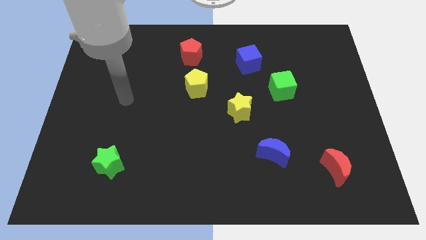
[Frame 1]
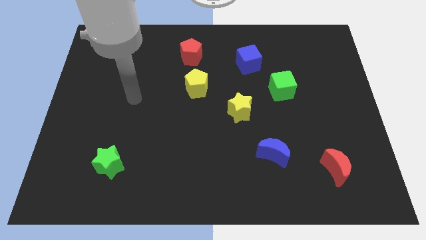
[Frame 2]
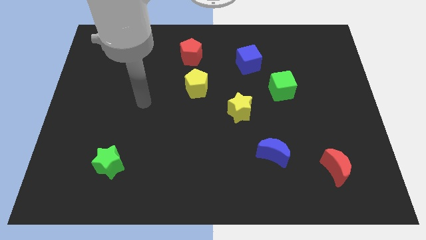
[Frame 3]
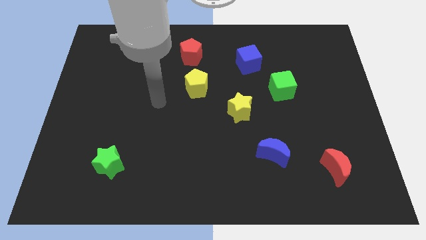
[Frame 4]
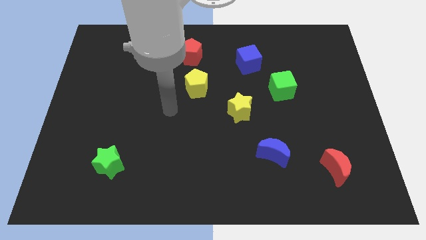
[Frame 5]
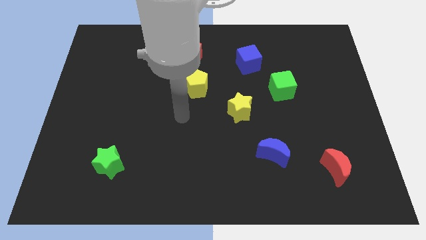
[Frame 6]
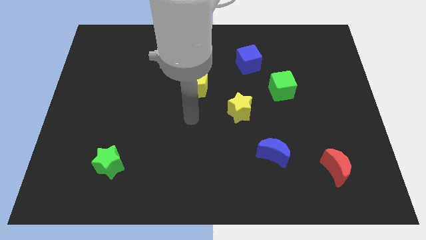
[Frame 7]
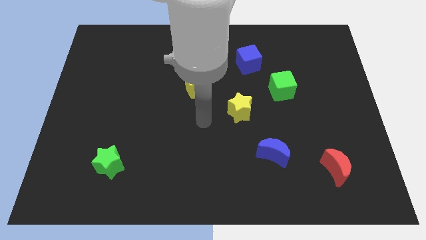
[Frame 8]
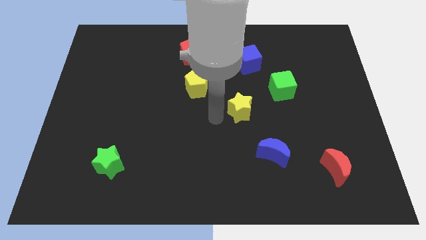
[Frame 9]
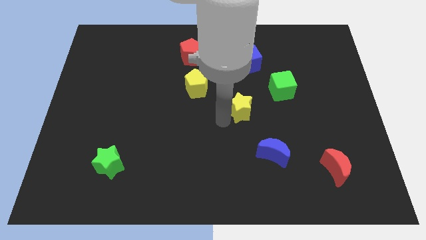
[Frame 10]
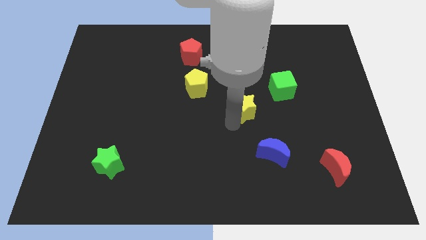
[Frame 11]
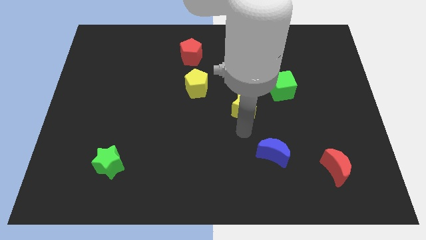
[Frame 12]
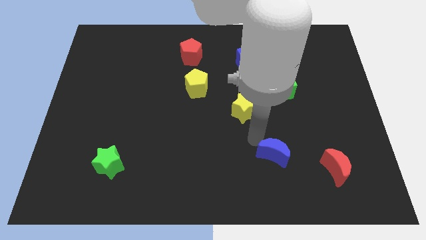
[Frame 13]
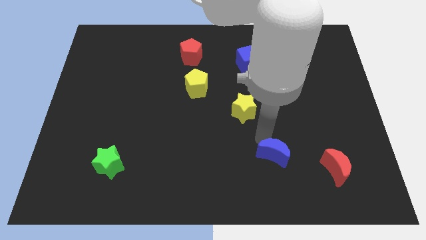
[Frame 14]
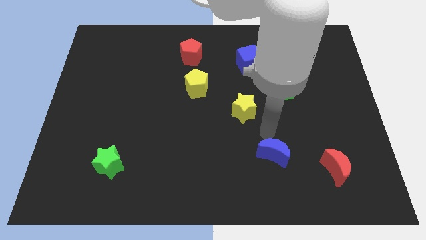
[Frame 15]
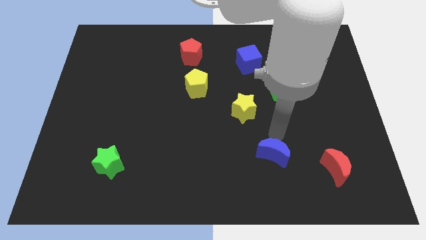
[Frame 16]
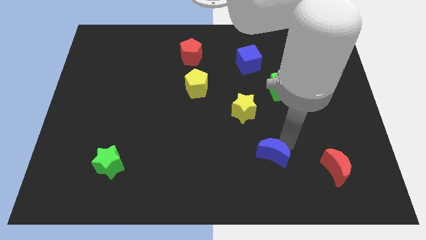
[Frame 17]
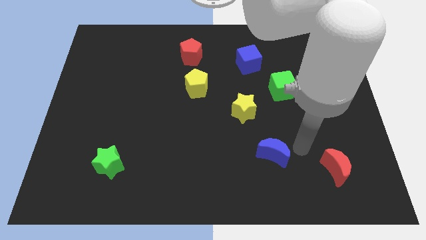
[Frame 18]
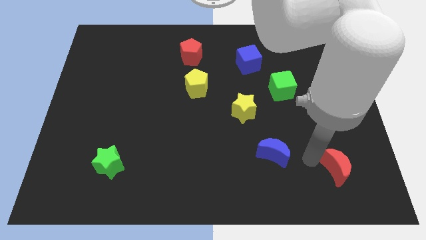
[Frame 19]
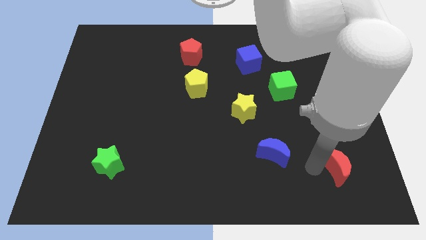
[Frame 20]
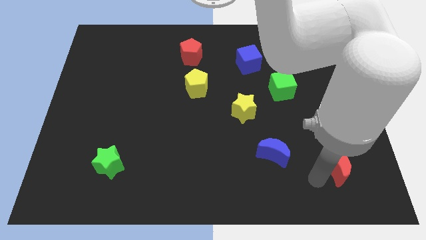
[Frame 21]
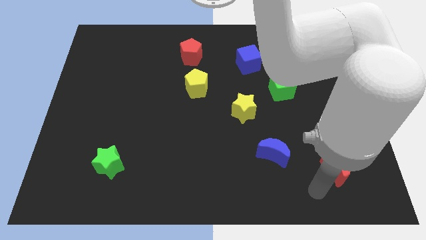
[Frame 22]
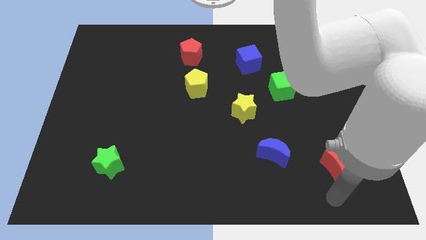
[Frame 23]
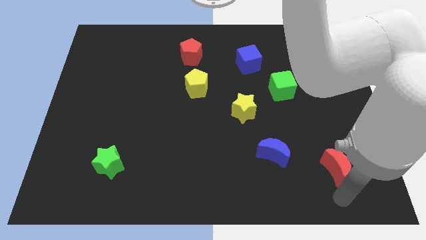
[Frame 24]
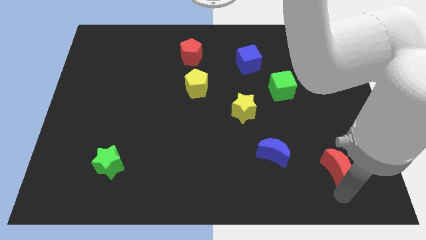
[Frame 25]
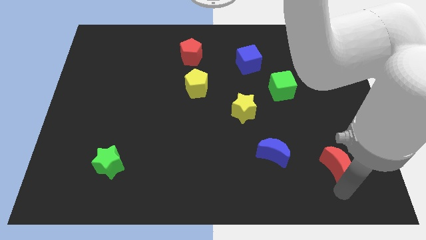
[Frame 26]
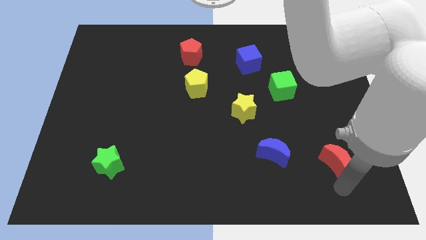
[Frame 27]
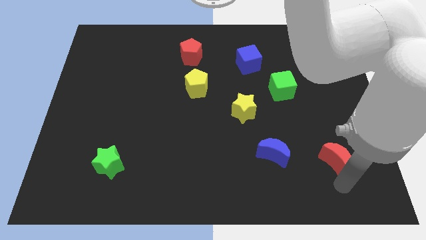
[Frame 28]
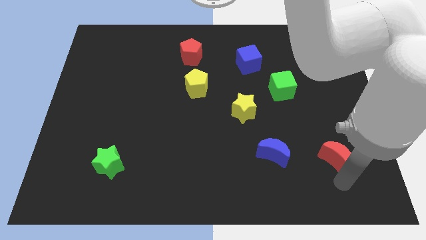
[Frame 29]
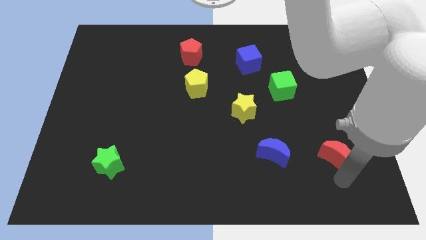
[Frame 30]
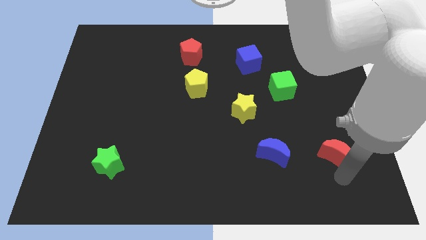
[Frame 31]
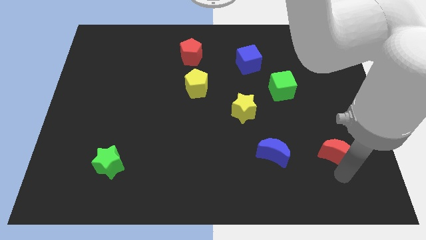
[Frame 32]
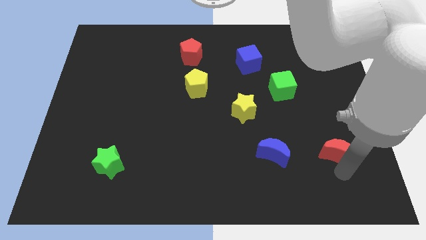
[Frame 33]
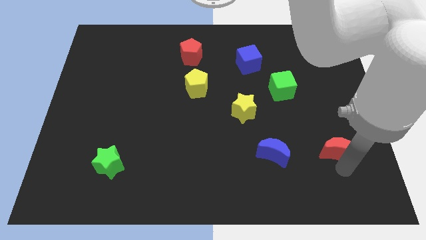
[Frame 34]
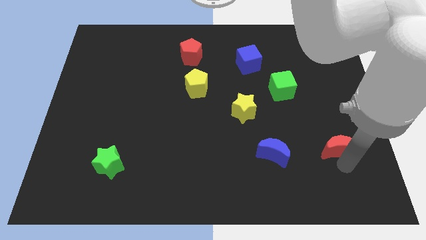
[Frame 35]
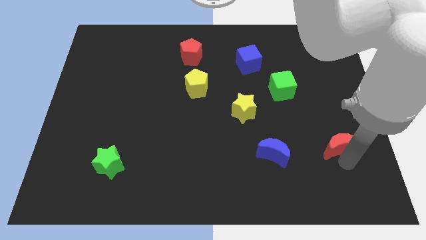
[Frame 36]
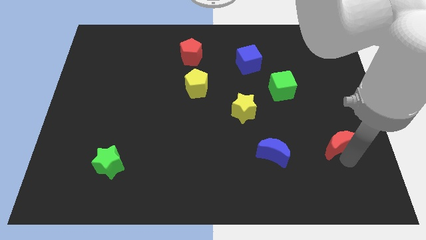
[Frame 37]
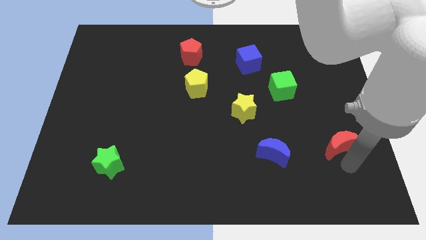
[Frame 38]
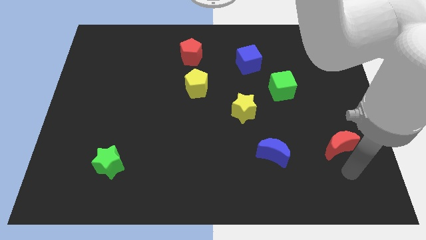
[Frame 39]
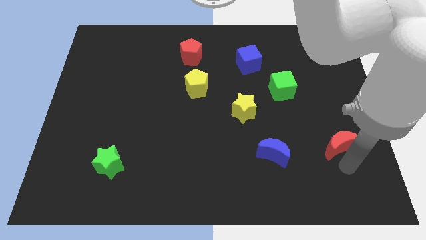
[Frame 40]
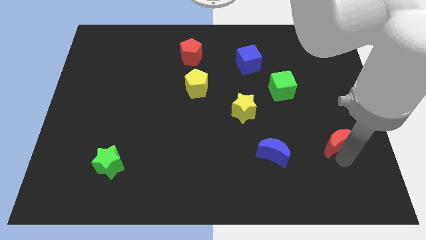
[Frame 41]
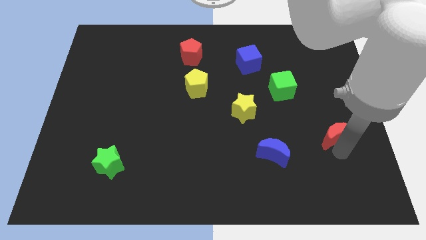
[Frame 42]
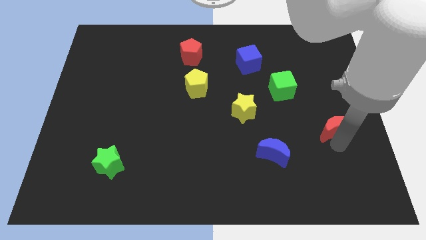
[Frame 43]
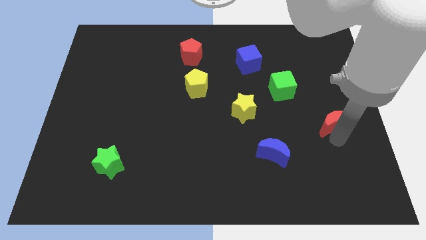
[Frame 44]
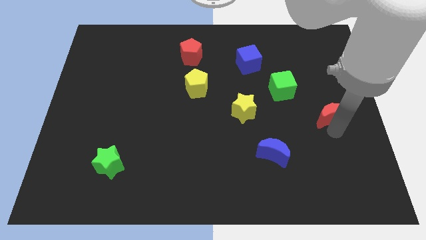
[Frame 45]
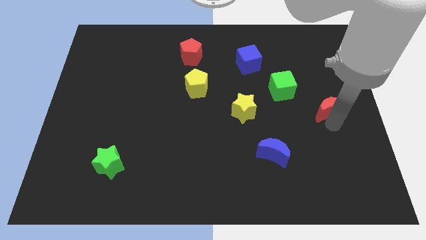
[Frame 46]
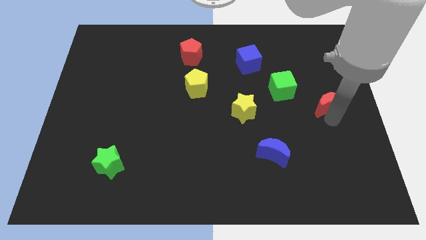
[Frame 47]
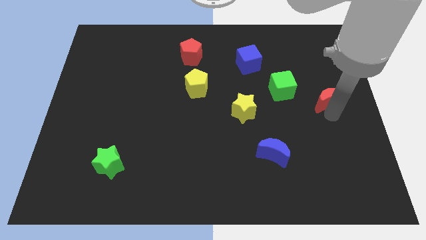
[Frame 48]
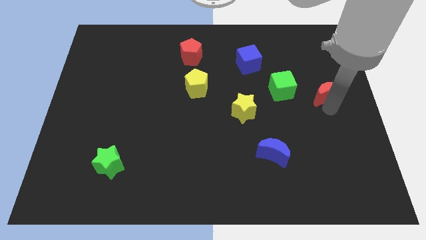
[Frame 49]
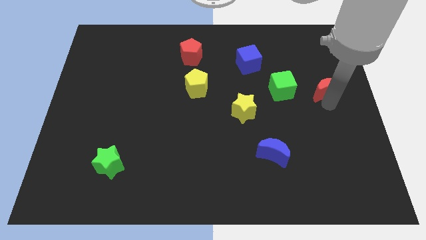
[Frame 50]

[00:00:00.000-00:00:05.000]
push the red moon up

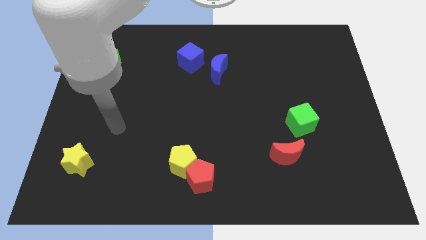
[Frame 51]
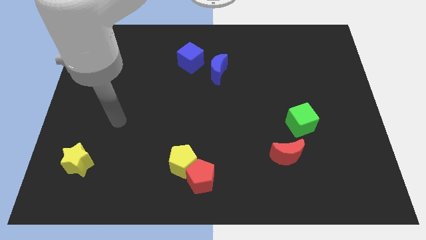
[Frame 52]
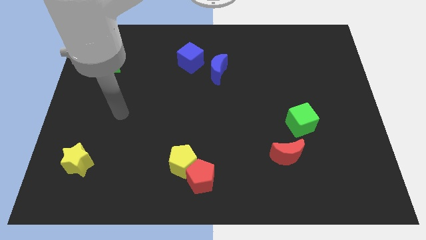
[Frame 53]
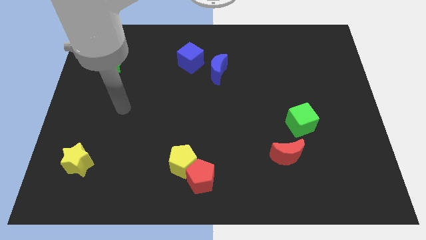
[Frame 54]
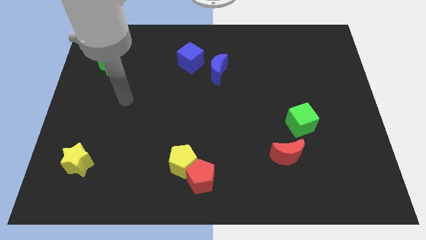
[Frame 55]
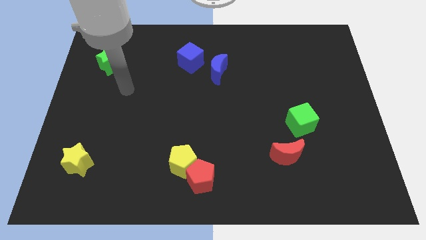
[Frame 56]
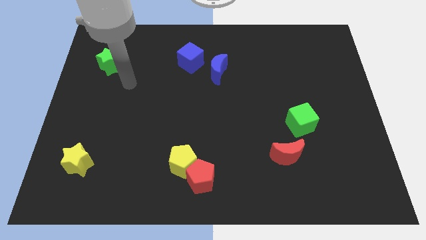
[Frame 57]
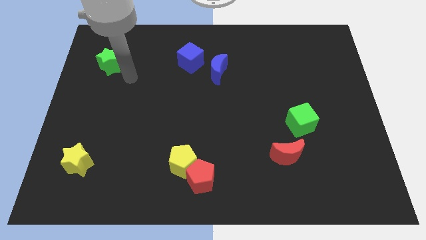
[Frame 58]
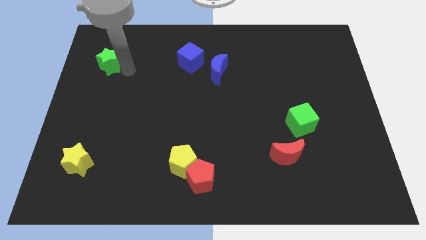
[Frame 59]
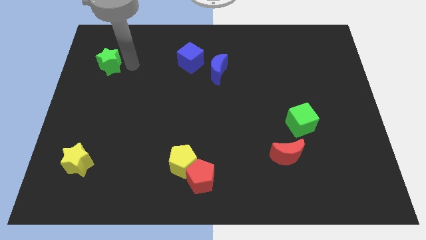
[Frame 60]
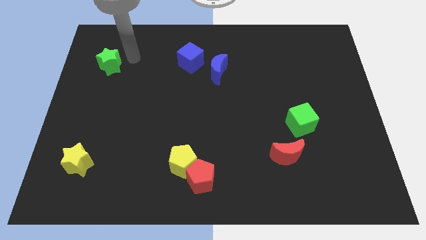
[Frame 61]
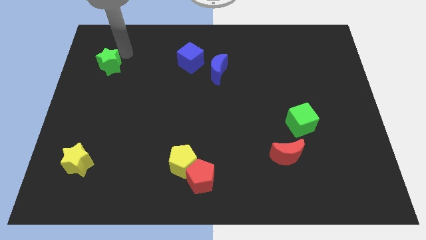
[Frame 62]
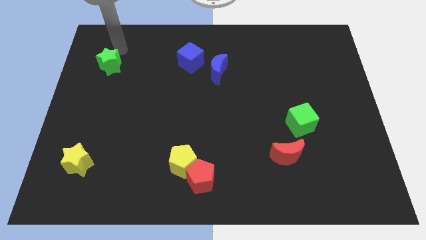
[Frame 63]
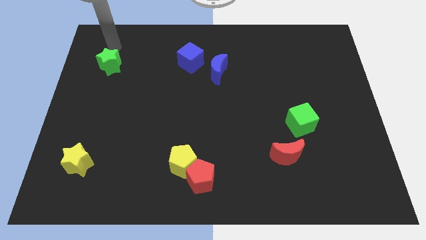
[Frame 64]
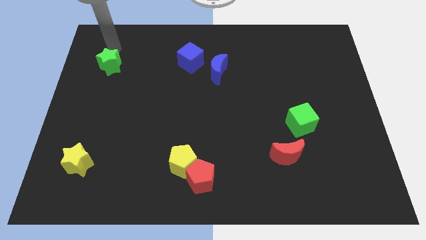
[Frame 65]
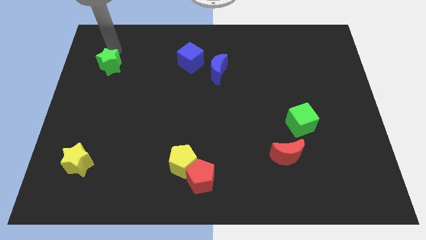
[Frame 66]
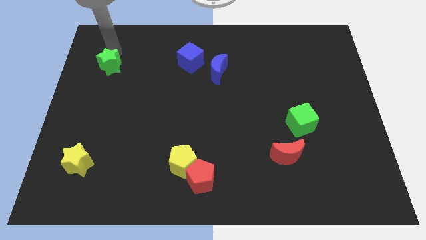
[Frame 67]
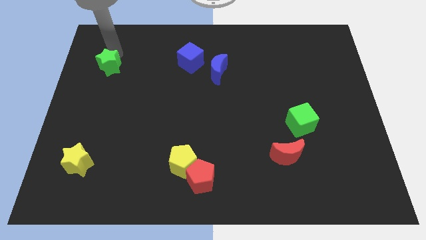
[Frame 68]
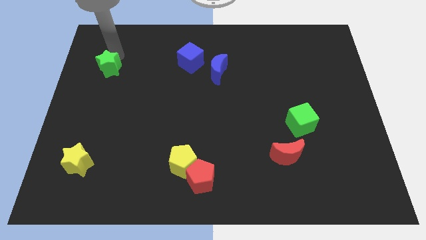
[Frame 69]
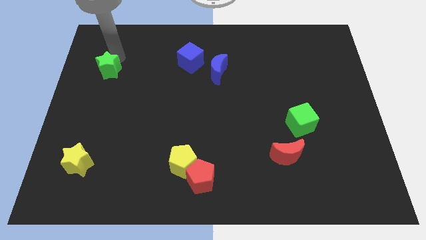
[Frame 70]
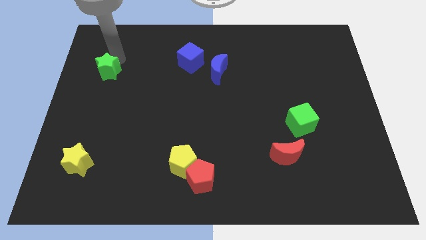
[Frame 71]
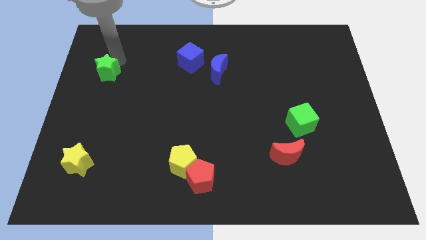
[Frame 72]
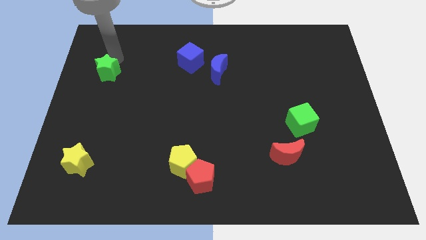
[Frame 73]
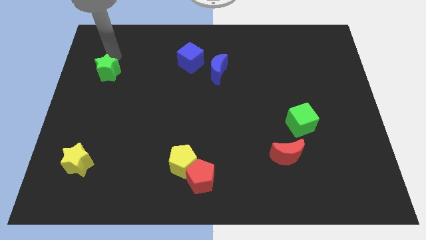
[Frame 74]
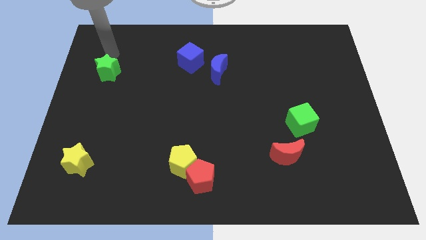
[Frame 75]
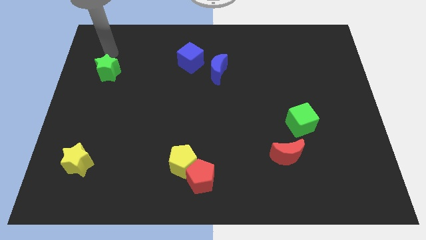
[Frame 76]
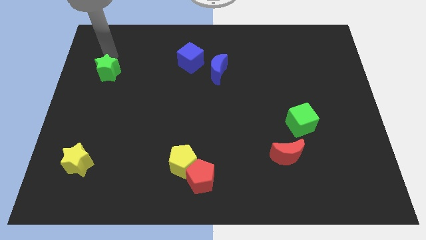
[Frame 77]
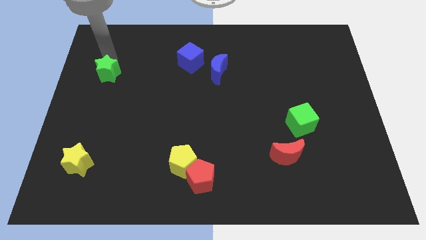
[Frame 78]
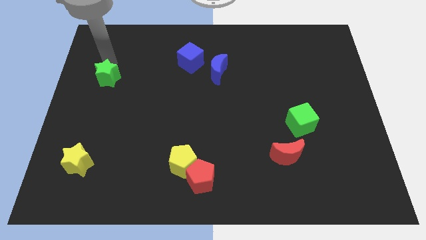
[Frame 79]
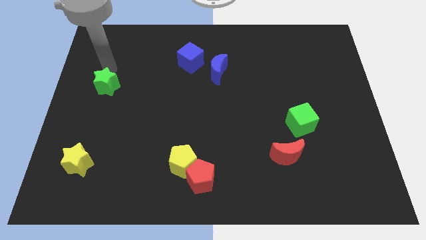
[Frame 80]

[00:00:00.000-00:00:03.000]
slightly push the green star downwards
